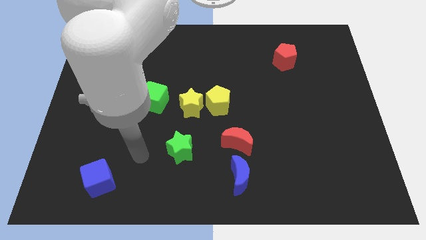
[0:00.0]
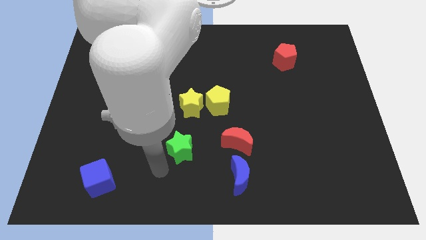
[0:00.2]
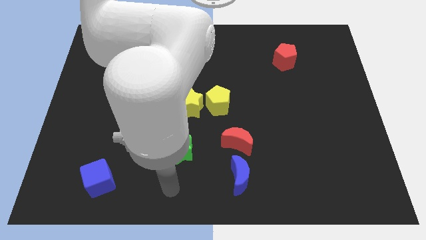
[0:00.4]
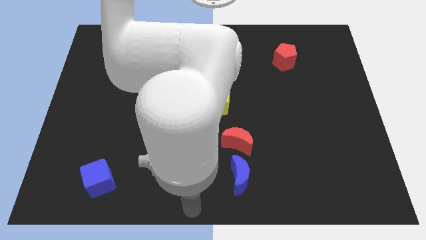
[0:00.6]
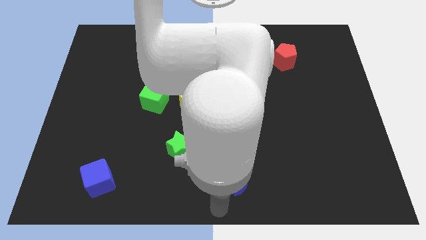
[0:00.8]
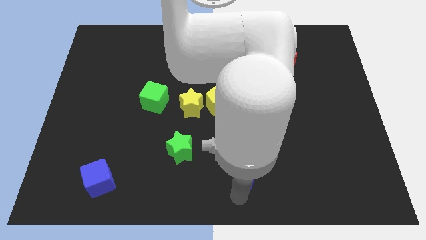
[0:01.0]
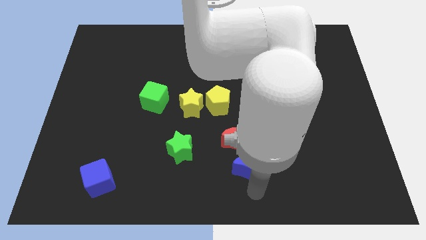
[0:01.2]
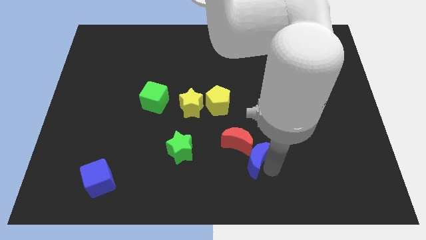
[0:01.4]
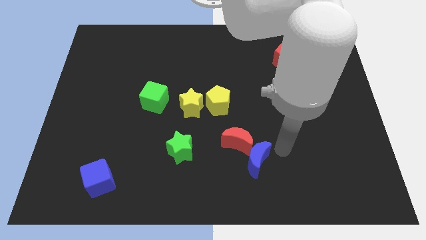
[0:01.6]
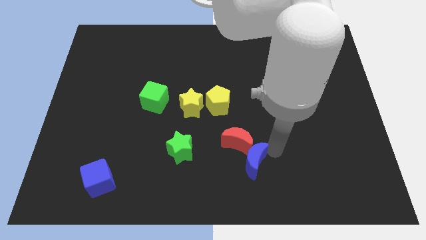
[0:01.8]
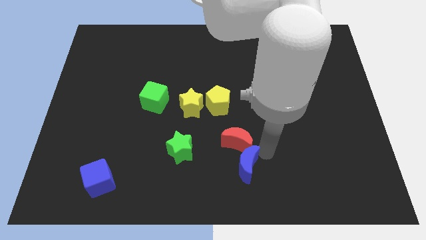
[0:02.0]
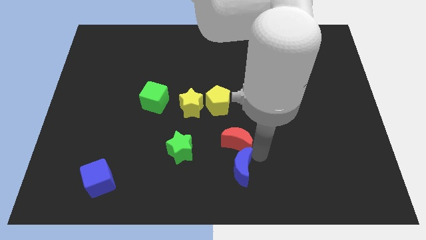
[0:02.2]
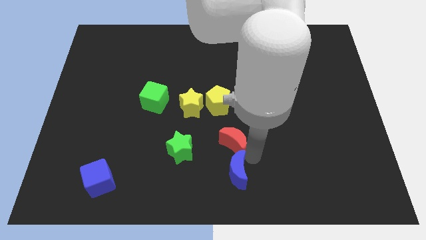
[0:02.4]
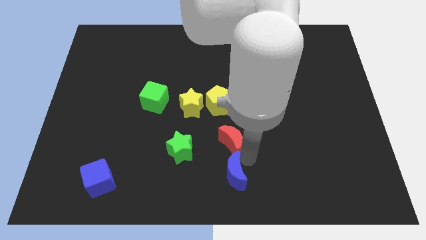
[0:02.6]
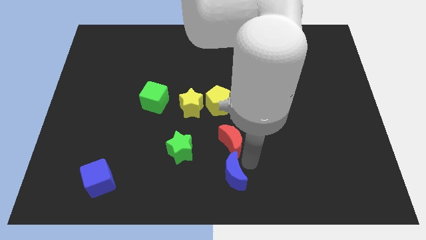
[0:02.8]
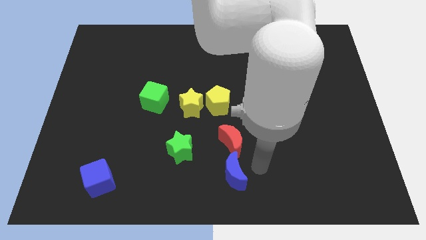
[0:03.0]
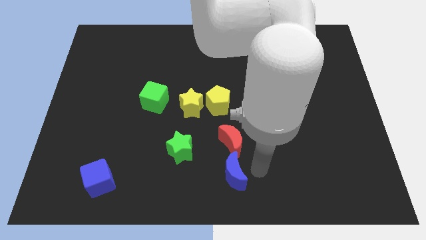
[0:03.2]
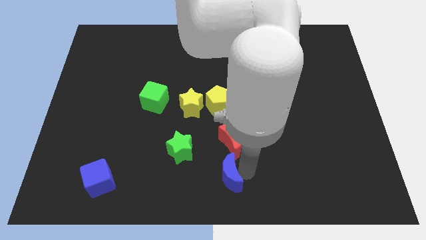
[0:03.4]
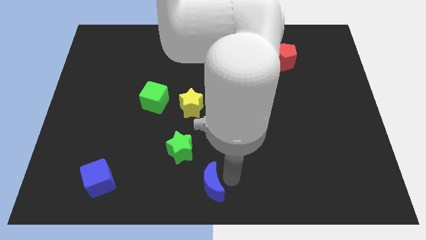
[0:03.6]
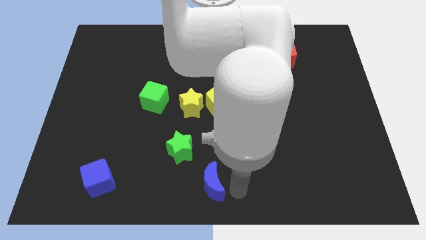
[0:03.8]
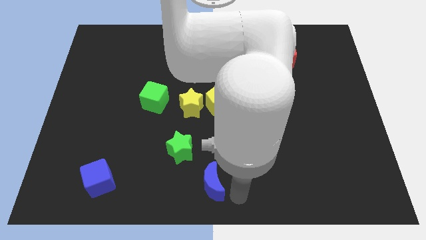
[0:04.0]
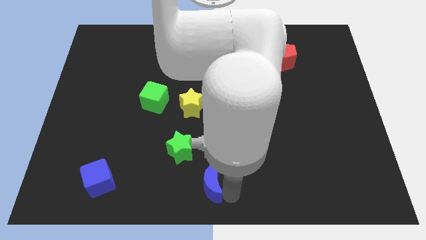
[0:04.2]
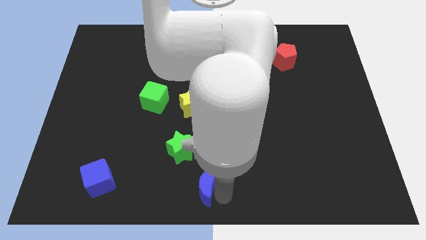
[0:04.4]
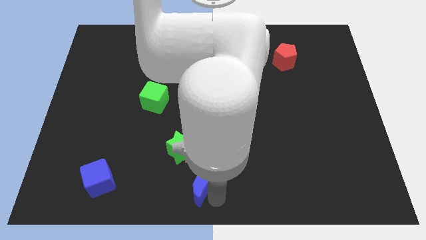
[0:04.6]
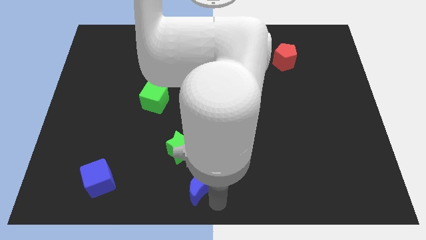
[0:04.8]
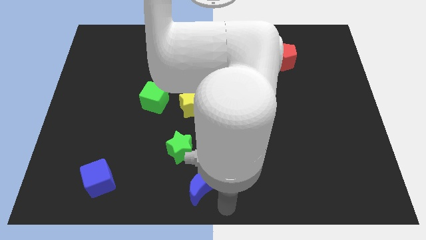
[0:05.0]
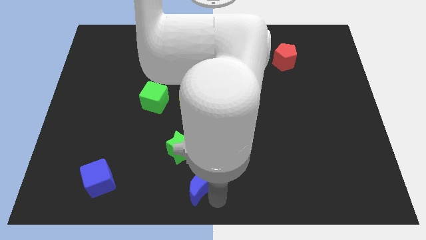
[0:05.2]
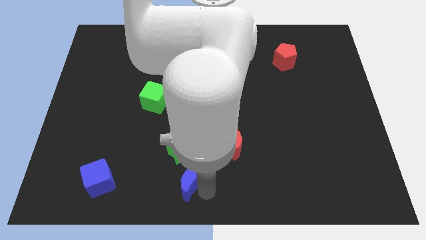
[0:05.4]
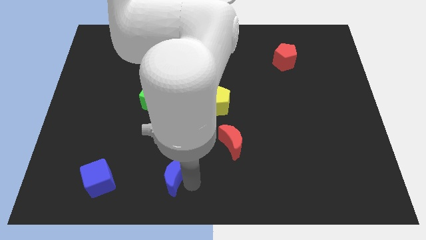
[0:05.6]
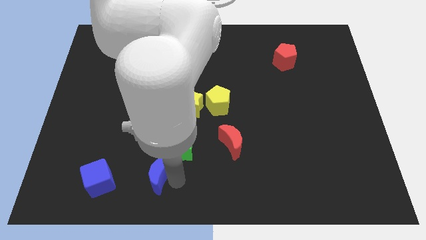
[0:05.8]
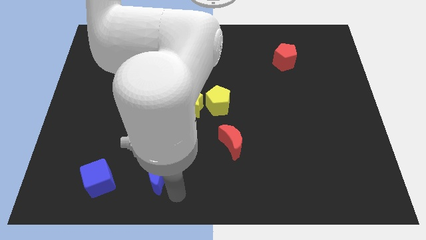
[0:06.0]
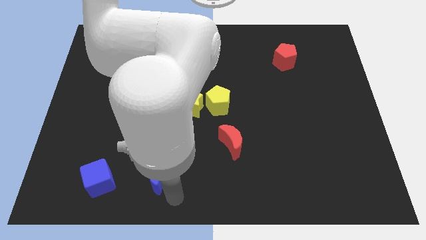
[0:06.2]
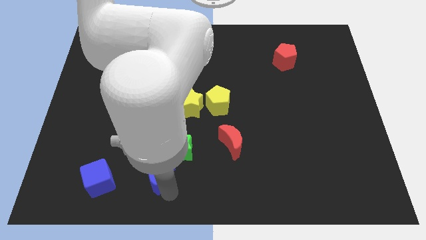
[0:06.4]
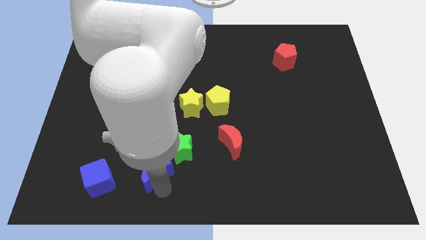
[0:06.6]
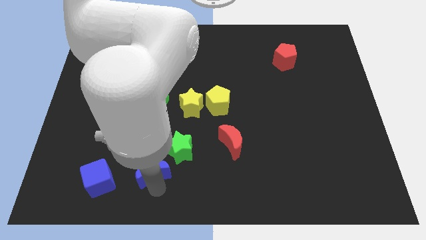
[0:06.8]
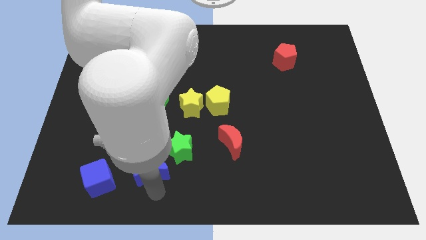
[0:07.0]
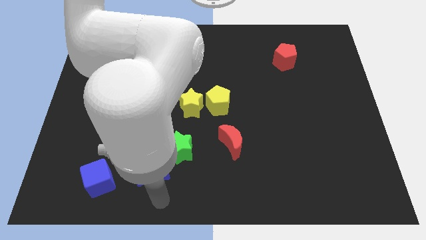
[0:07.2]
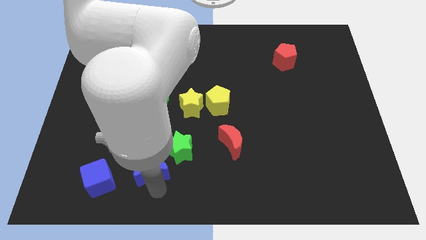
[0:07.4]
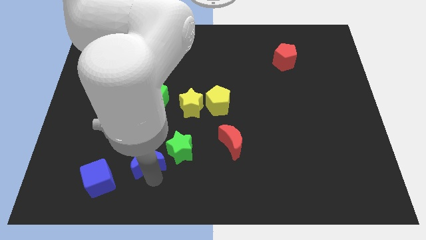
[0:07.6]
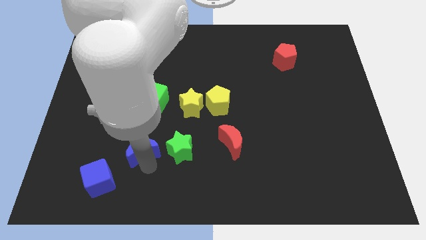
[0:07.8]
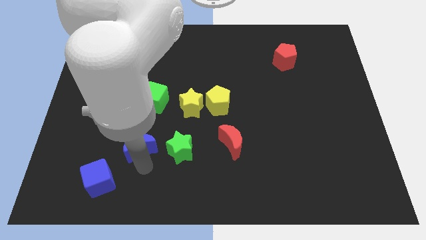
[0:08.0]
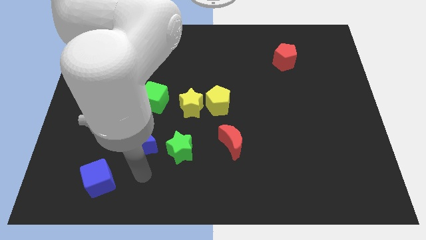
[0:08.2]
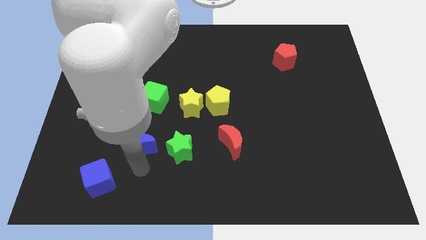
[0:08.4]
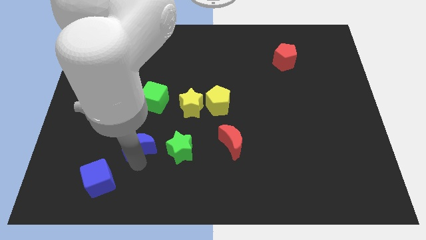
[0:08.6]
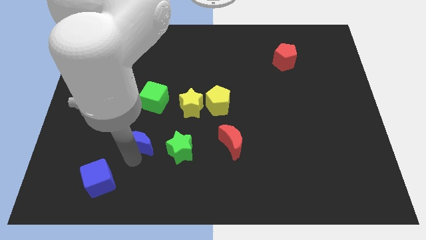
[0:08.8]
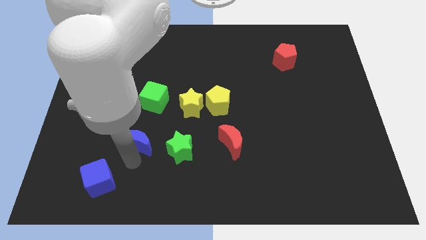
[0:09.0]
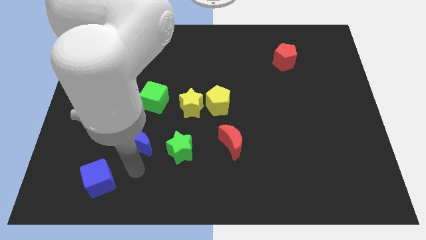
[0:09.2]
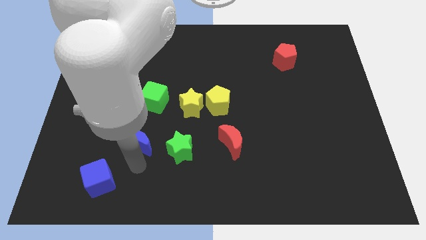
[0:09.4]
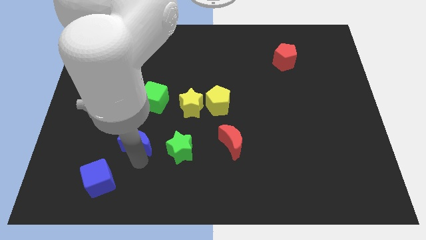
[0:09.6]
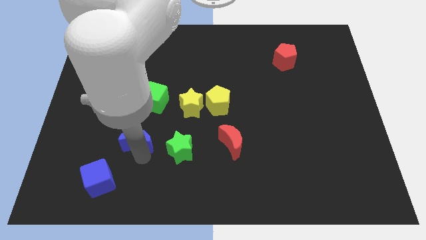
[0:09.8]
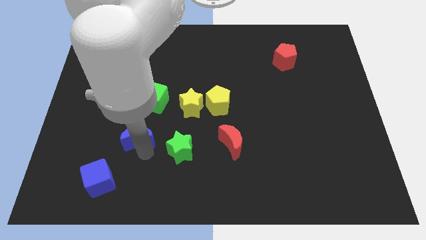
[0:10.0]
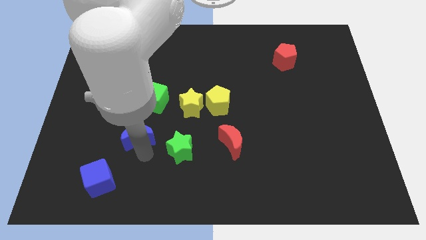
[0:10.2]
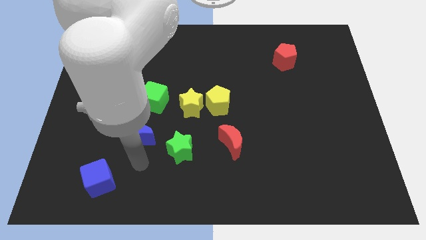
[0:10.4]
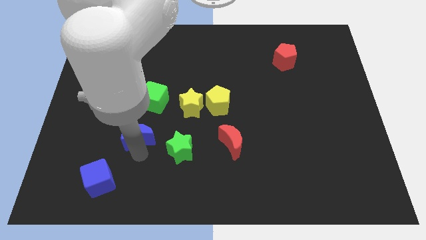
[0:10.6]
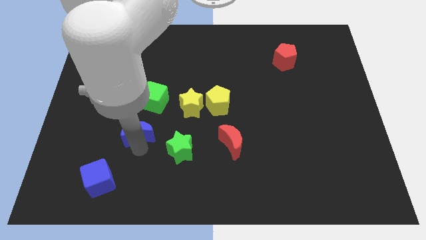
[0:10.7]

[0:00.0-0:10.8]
move the blue moon diagonally upwards and to the left

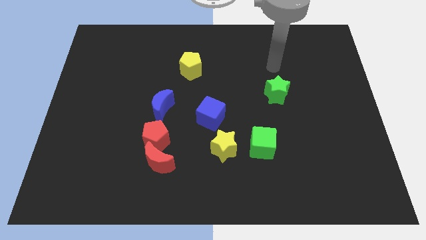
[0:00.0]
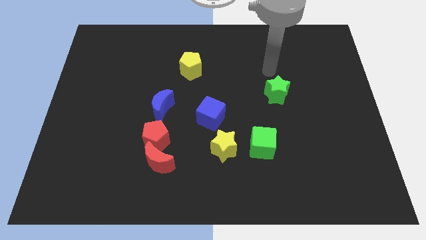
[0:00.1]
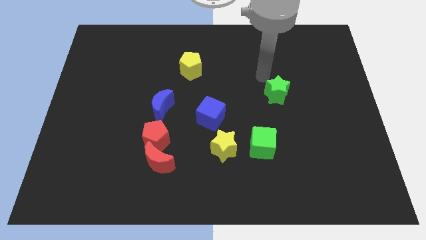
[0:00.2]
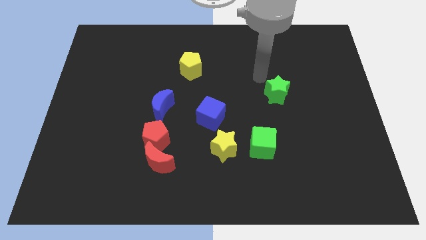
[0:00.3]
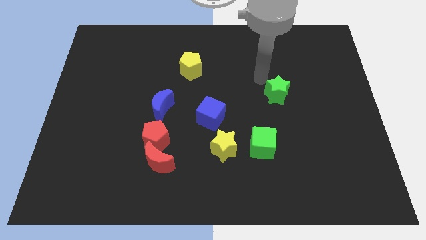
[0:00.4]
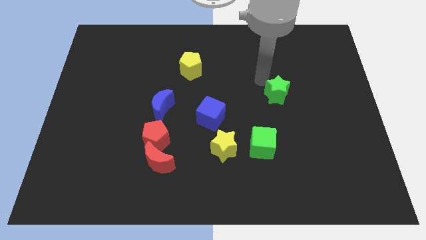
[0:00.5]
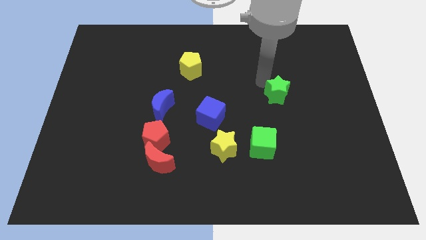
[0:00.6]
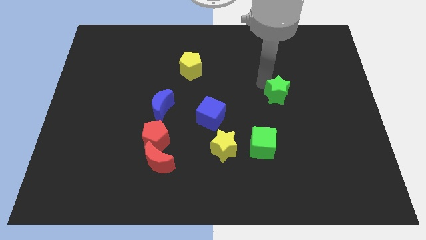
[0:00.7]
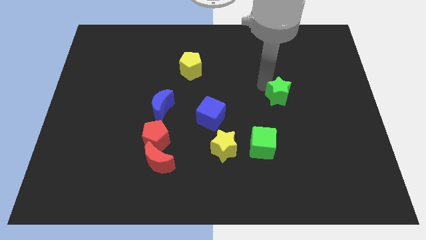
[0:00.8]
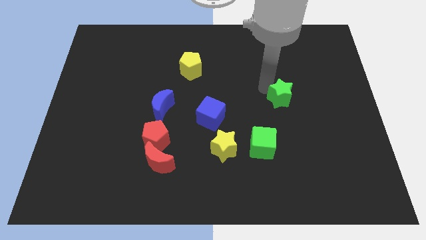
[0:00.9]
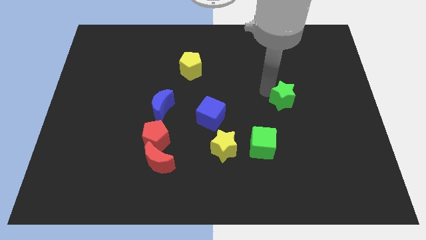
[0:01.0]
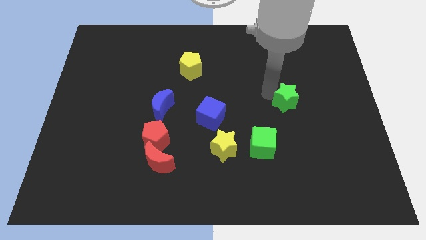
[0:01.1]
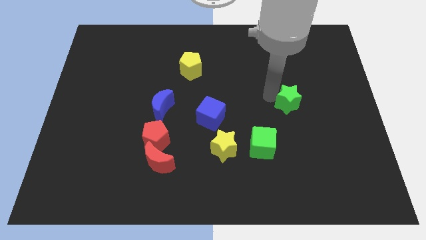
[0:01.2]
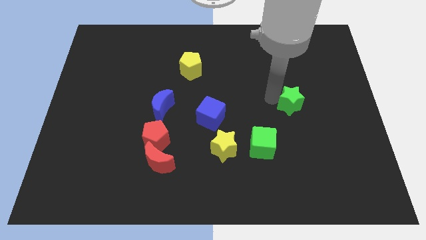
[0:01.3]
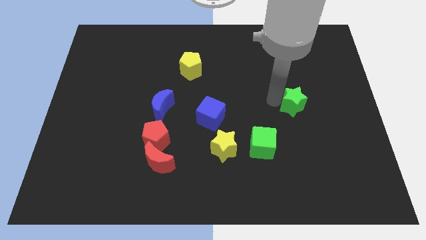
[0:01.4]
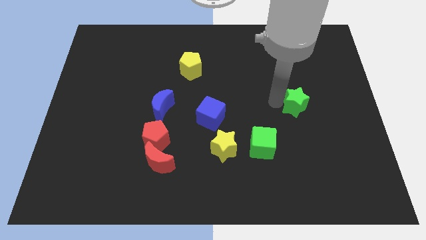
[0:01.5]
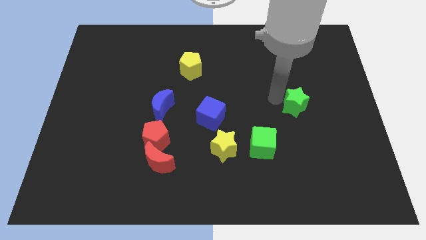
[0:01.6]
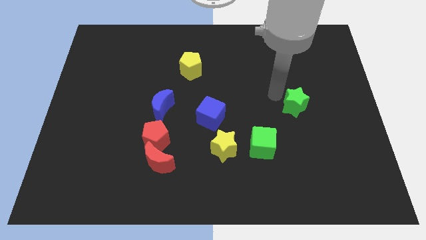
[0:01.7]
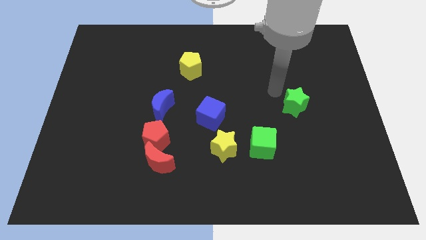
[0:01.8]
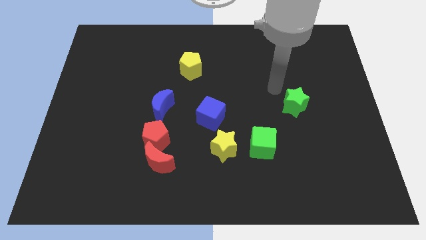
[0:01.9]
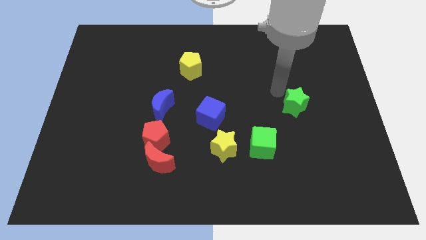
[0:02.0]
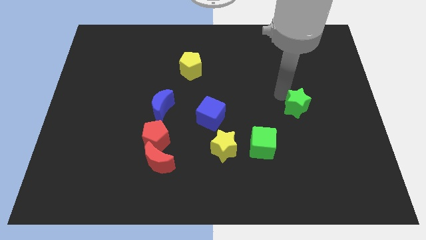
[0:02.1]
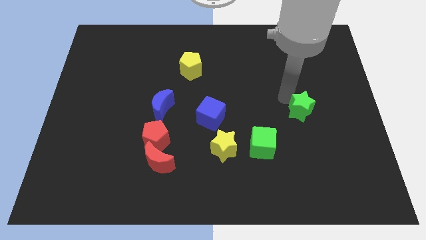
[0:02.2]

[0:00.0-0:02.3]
push the green star downwards and to the right slightly

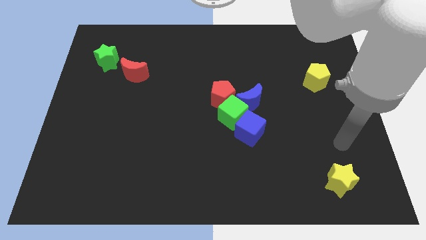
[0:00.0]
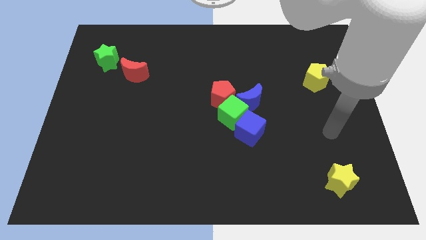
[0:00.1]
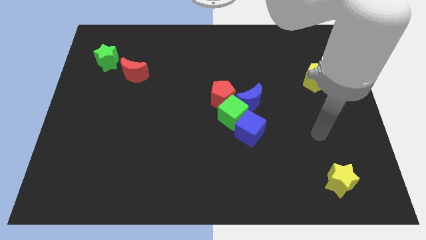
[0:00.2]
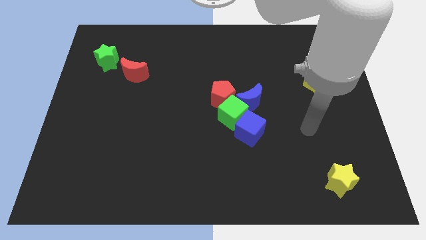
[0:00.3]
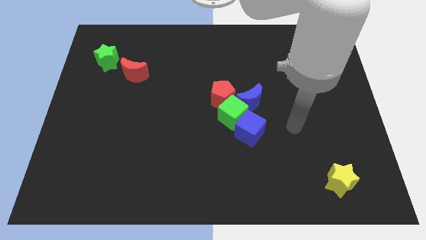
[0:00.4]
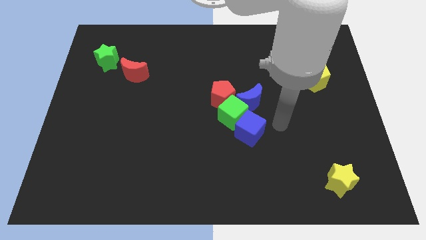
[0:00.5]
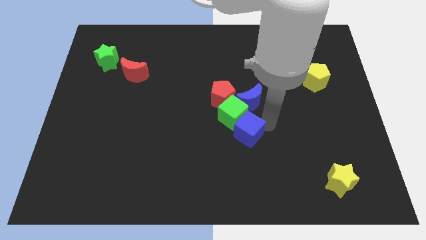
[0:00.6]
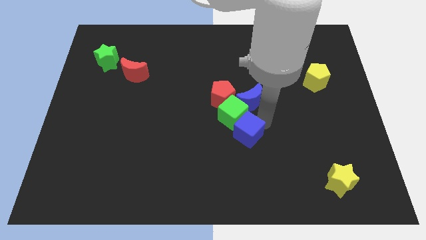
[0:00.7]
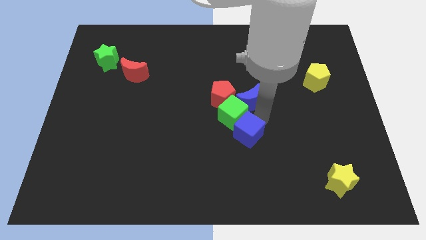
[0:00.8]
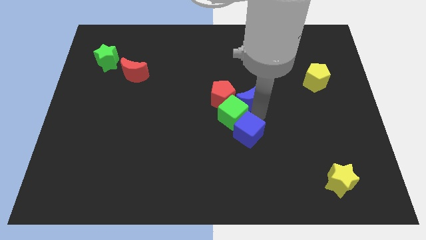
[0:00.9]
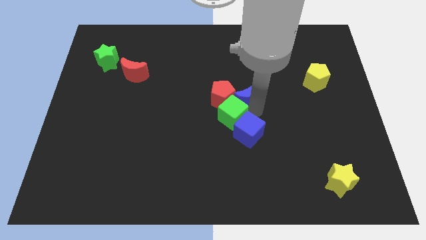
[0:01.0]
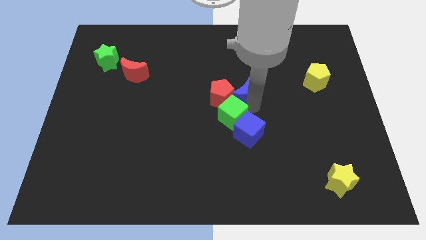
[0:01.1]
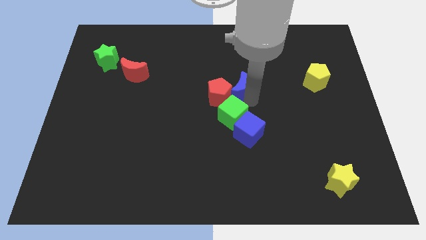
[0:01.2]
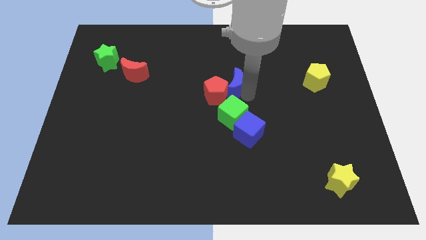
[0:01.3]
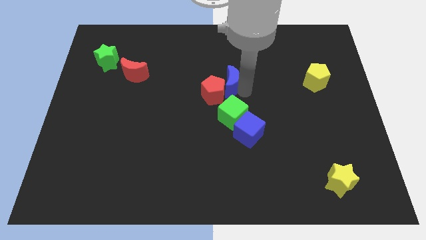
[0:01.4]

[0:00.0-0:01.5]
push the blue moon a bit upwards and left diagonally
